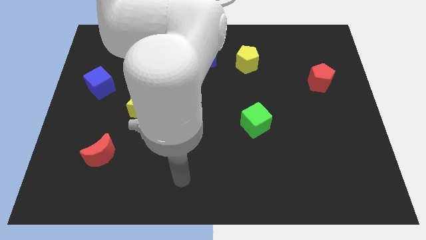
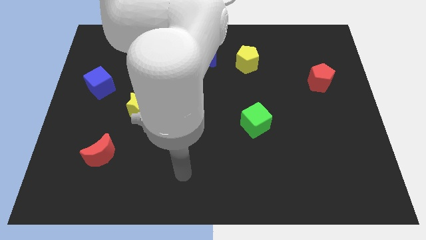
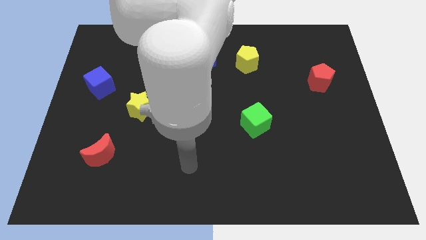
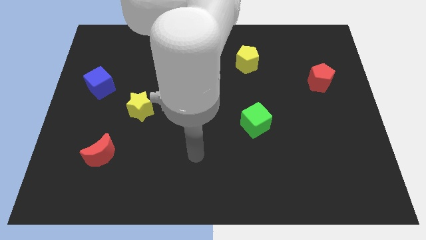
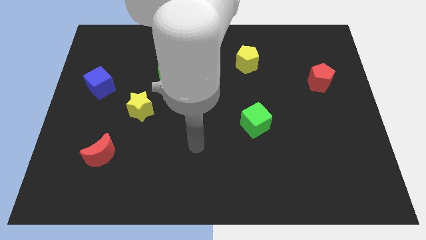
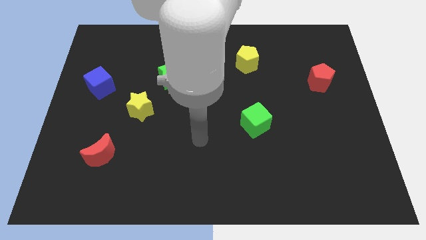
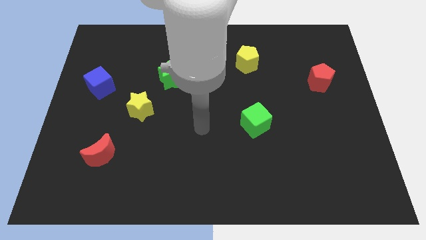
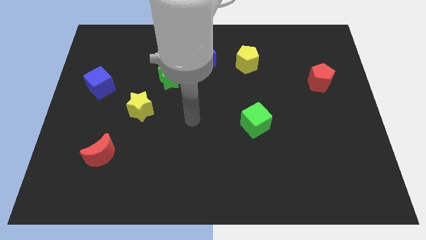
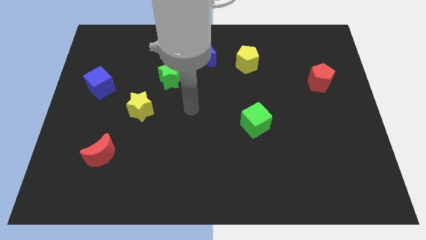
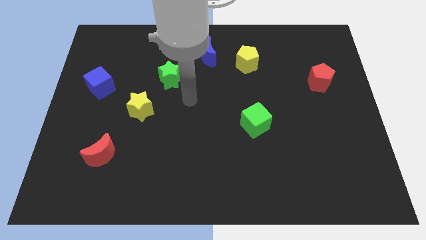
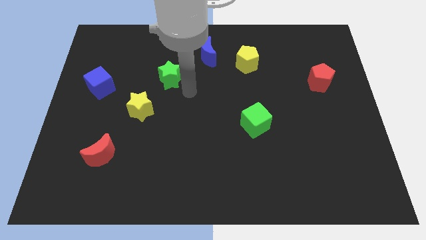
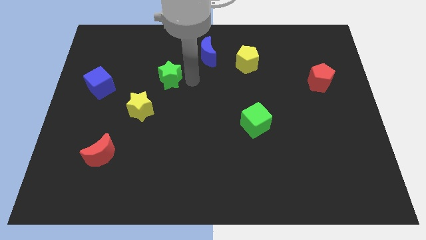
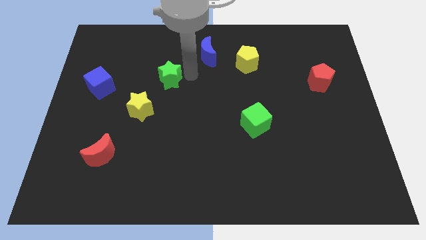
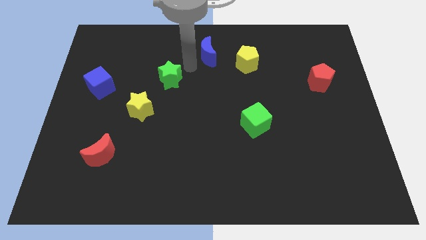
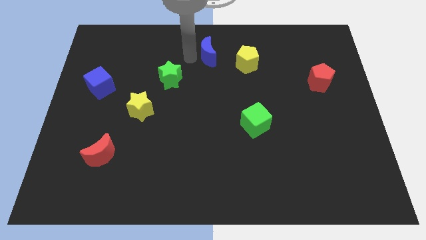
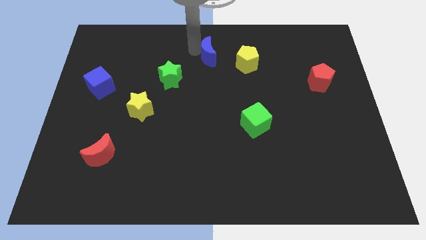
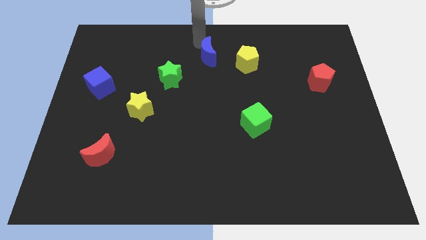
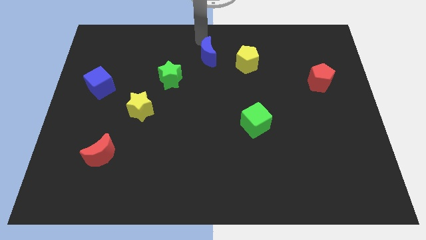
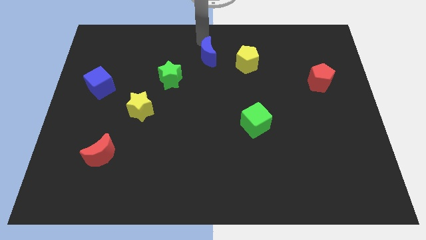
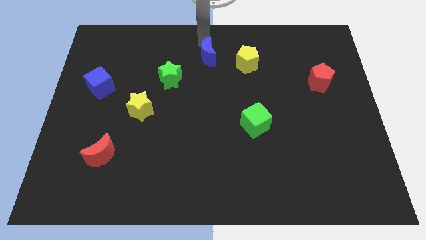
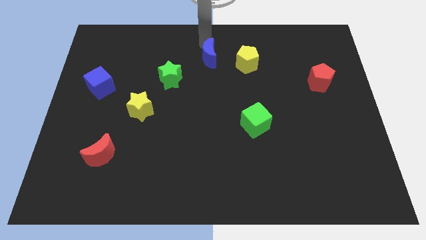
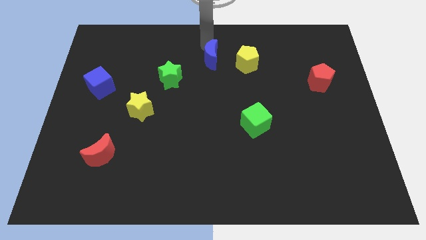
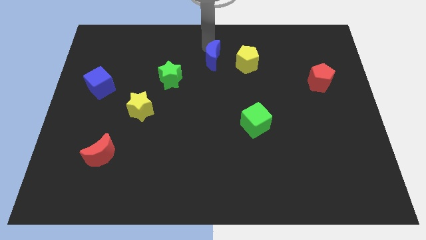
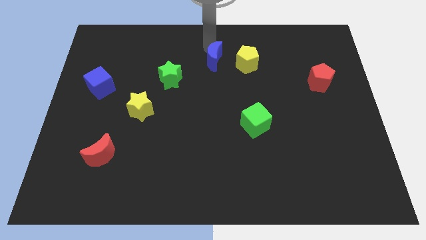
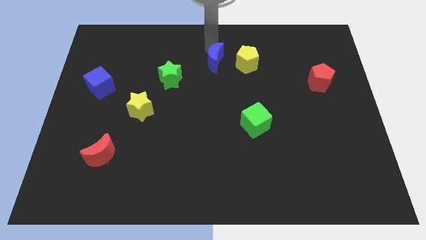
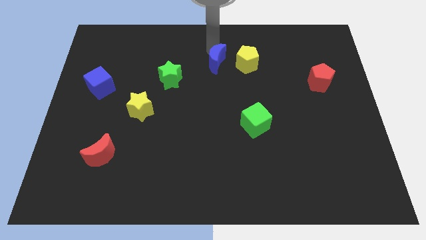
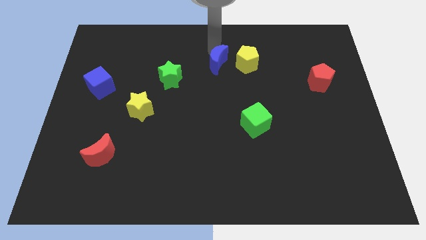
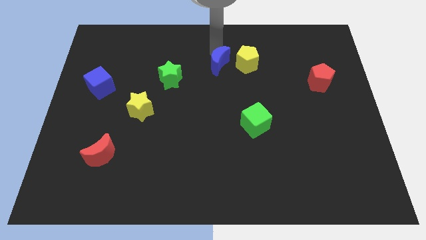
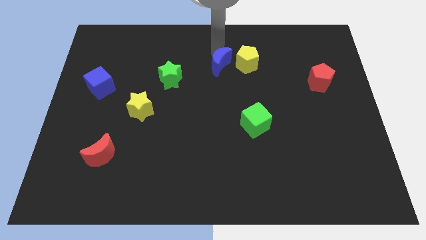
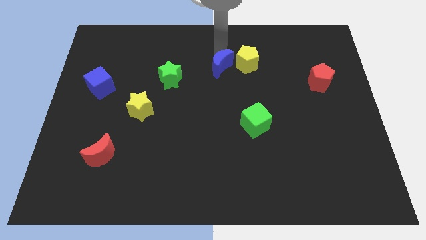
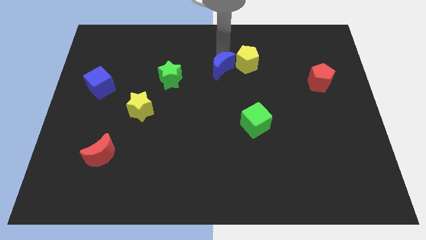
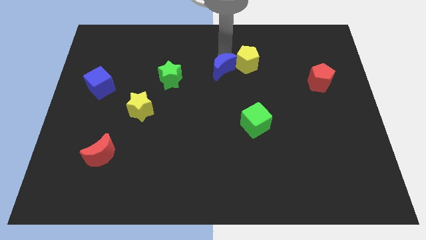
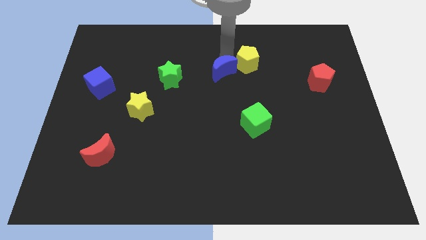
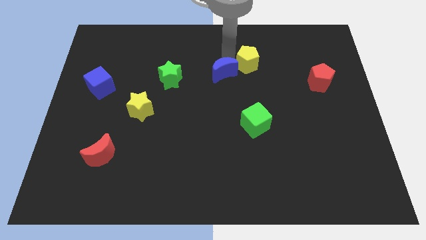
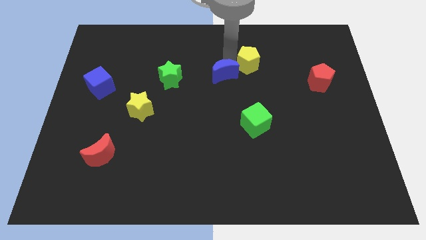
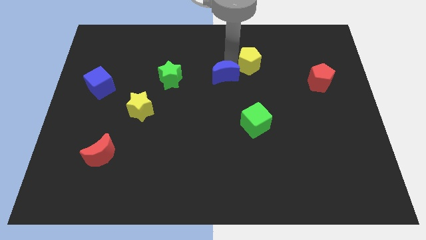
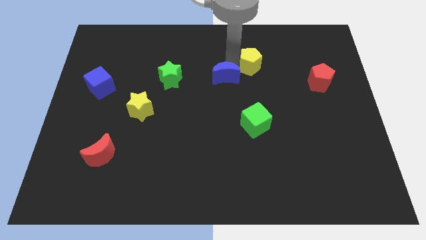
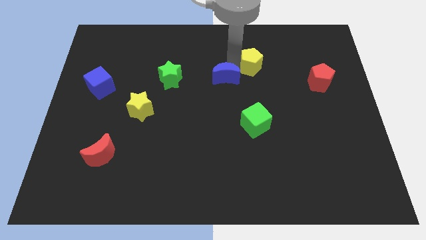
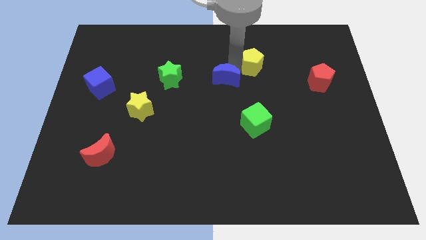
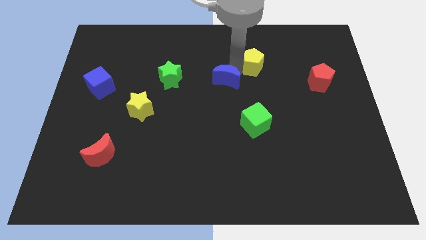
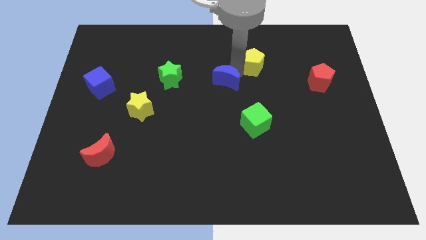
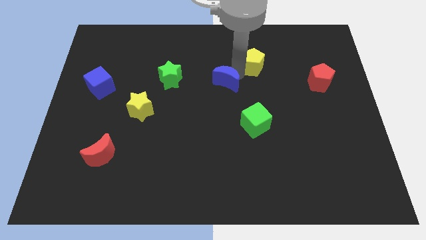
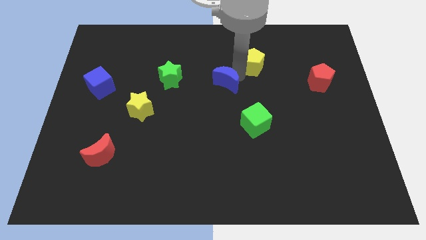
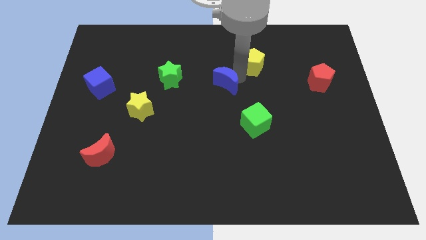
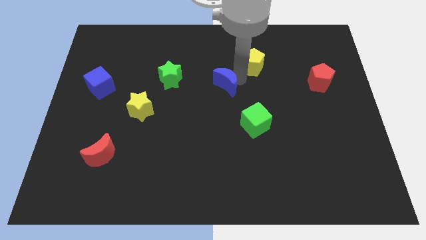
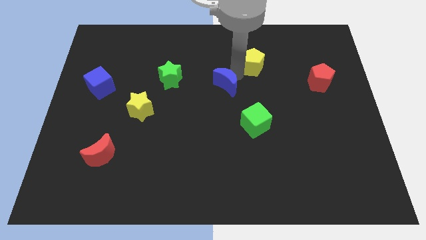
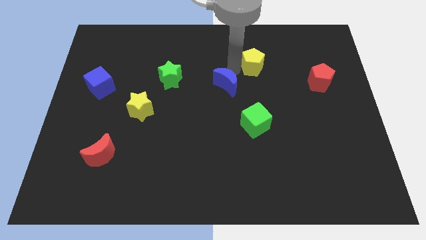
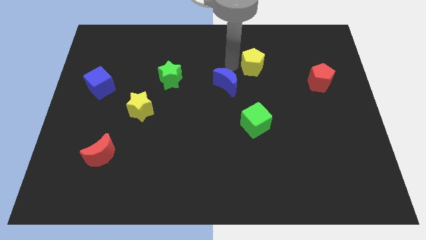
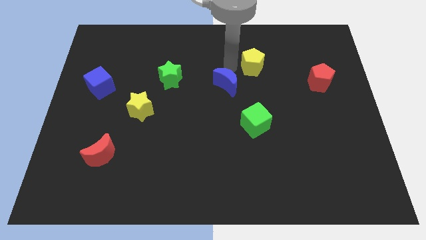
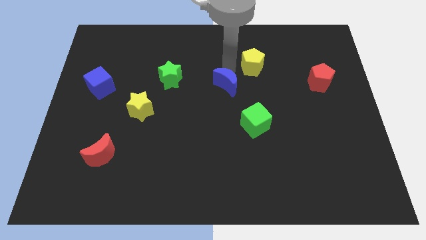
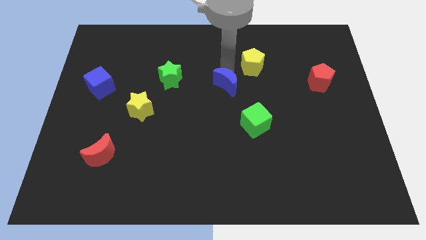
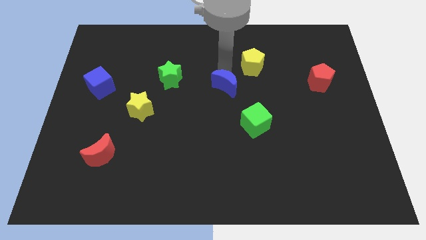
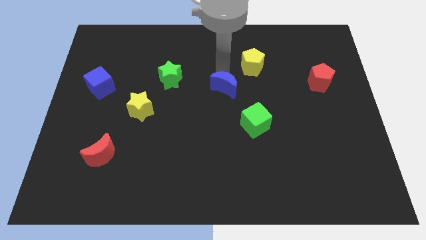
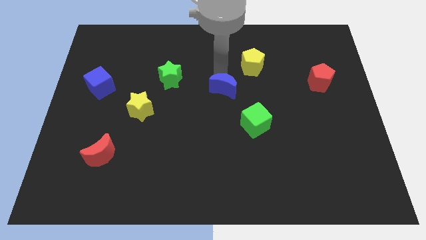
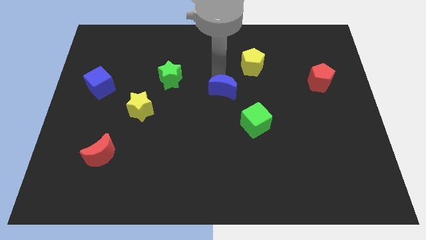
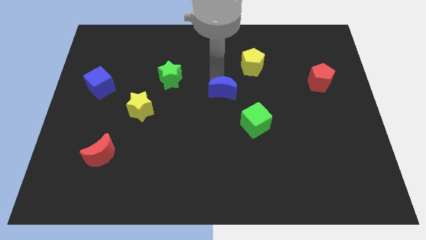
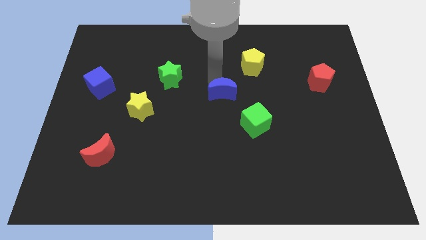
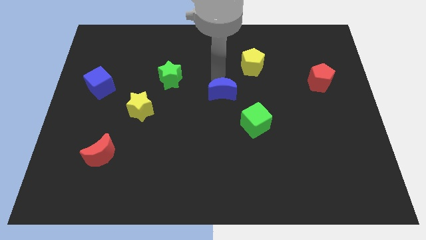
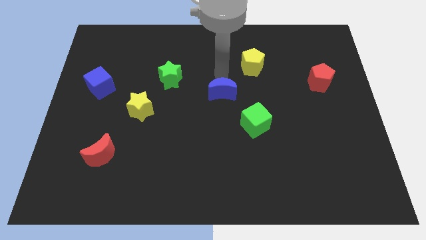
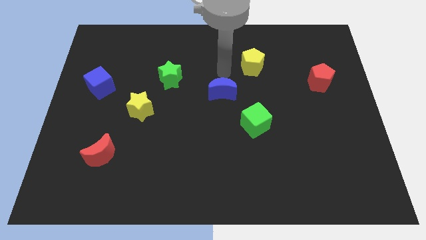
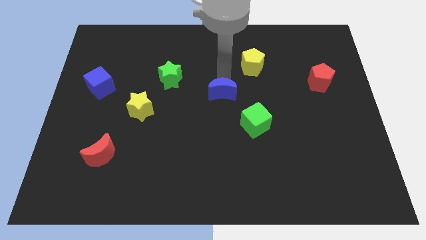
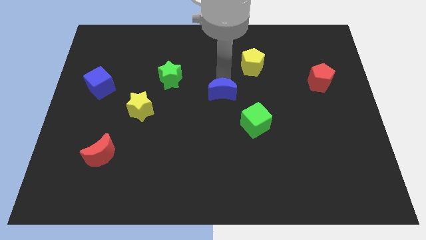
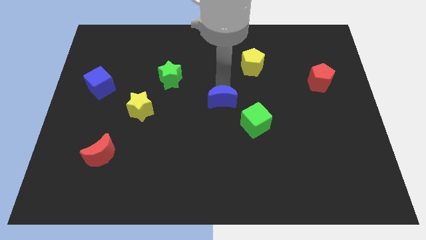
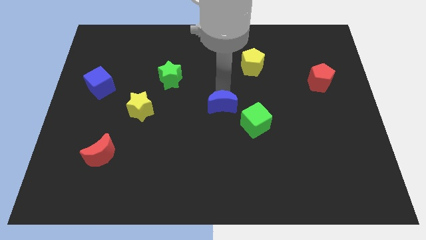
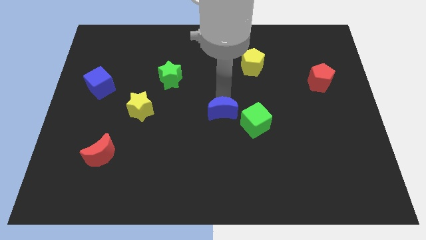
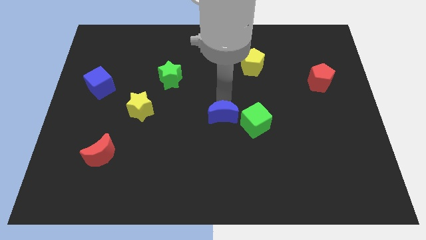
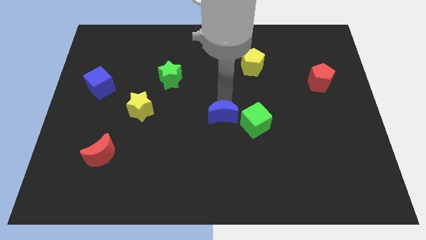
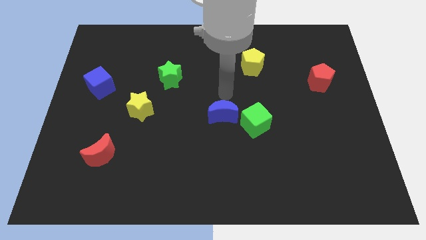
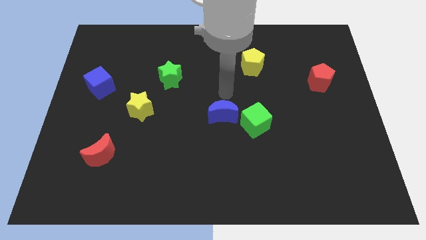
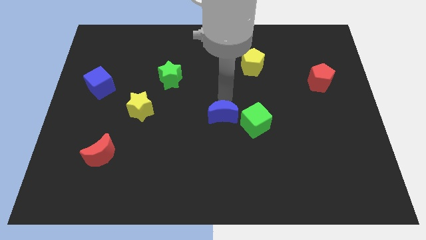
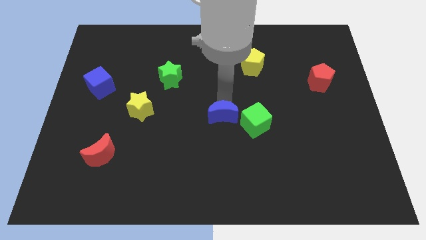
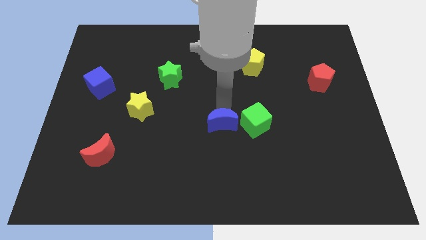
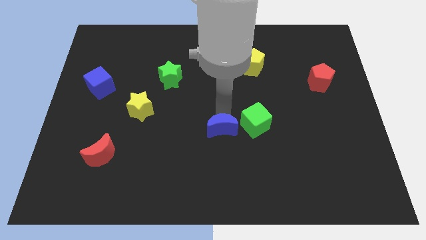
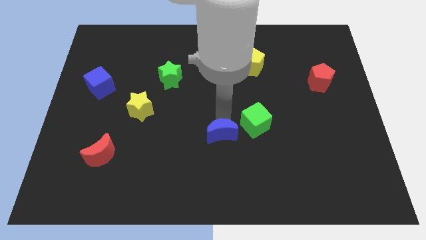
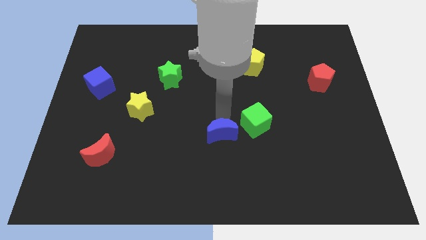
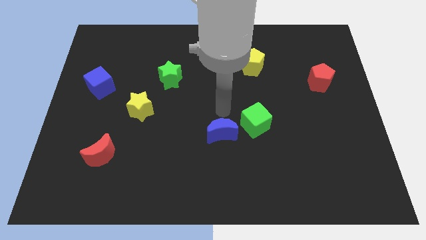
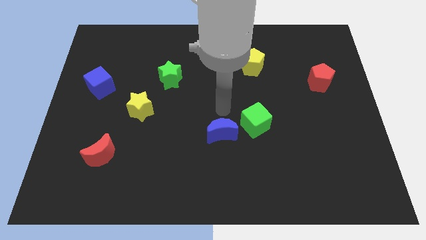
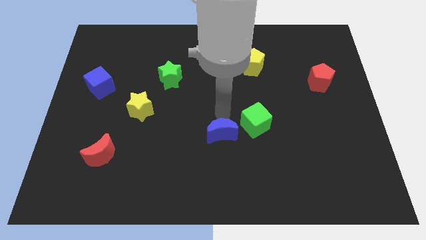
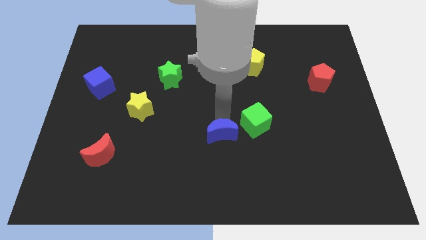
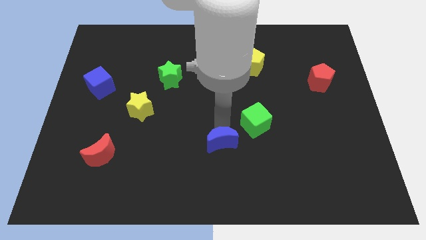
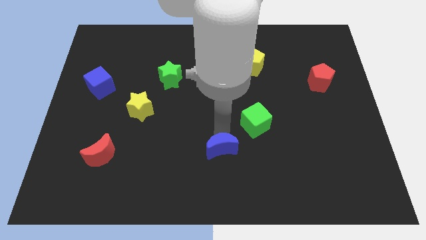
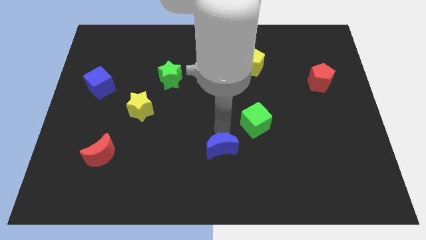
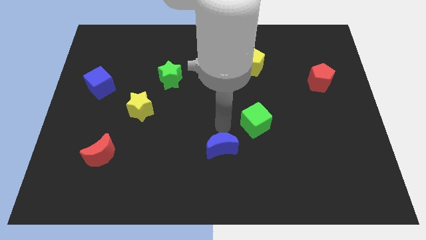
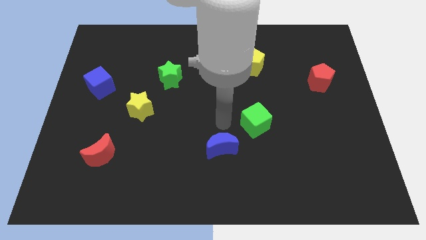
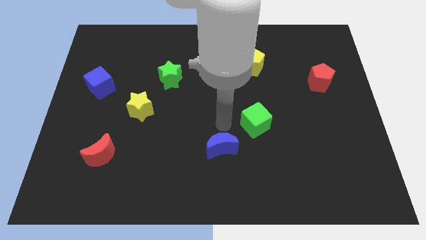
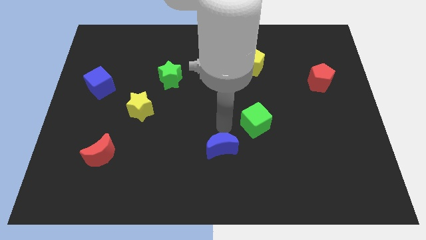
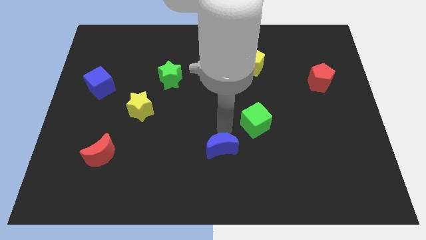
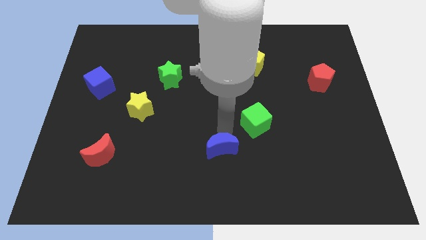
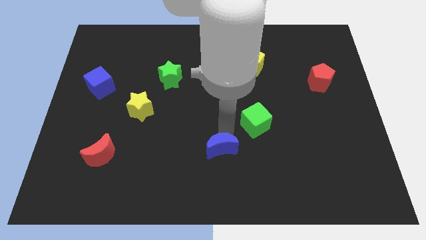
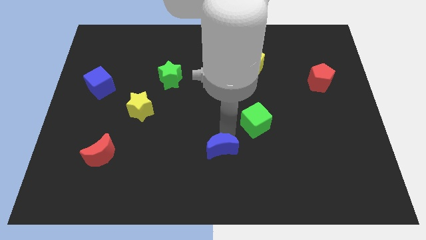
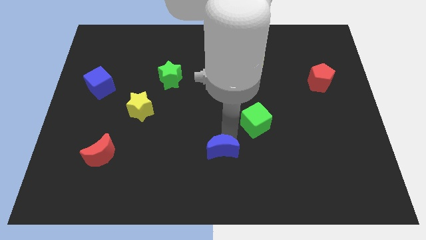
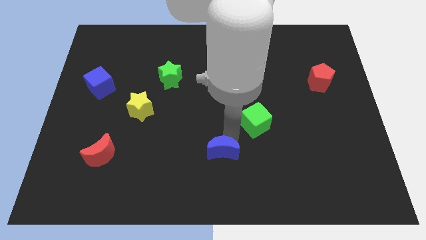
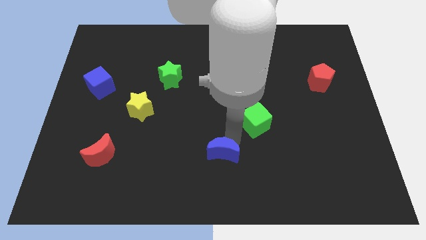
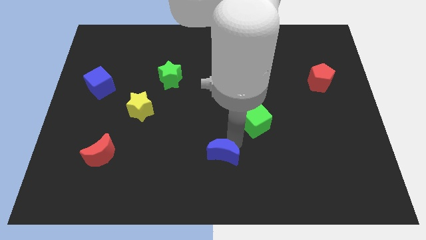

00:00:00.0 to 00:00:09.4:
put the blue moon to the bottom
